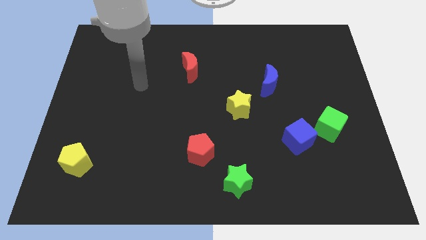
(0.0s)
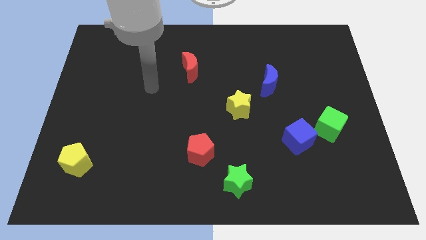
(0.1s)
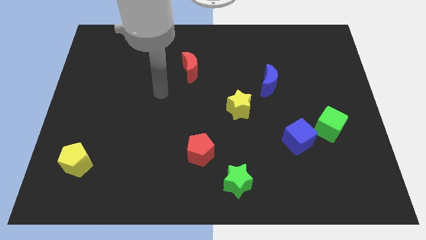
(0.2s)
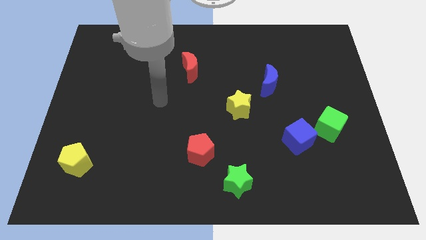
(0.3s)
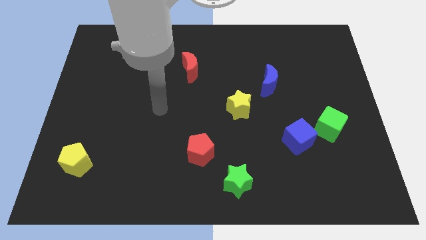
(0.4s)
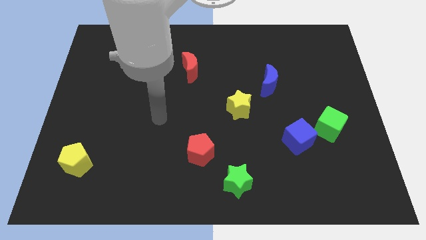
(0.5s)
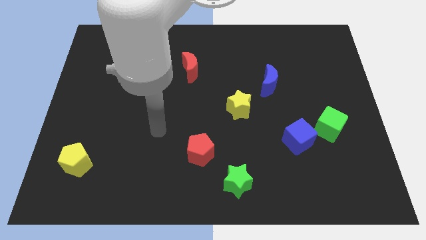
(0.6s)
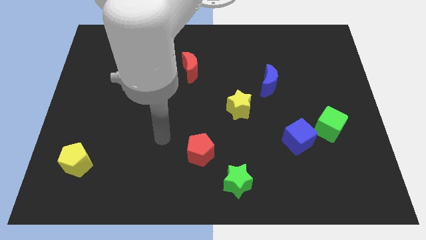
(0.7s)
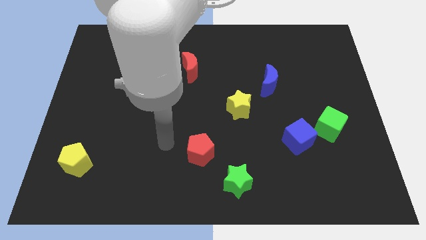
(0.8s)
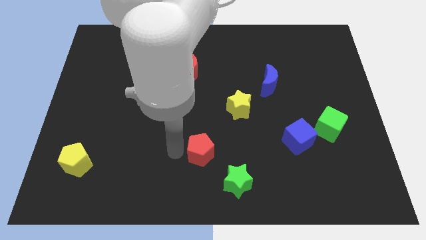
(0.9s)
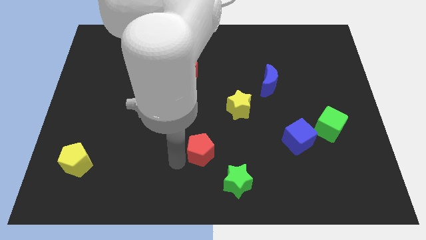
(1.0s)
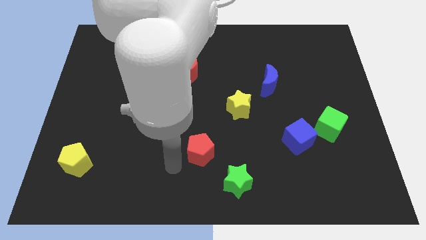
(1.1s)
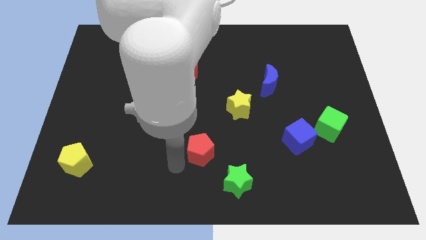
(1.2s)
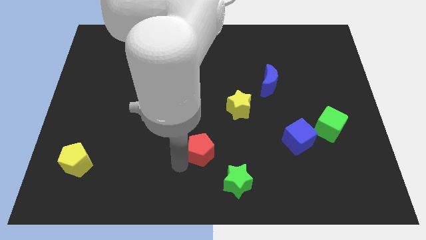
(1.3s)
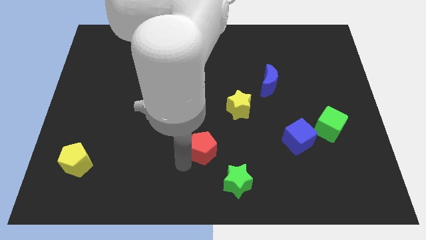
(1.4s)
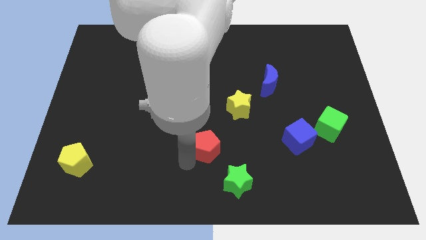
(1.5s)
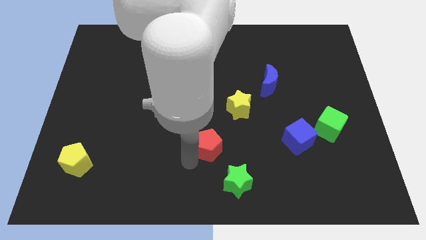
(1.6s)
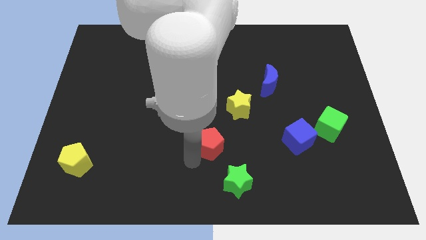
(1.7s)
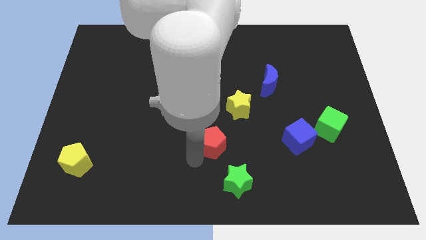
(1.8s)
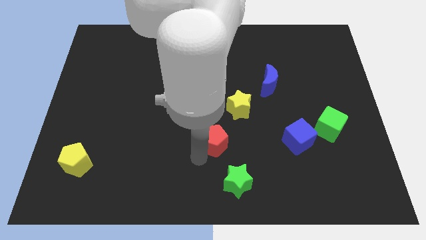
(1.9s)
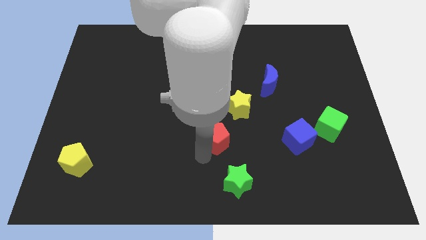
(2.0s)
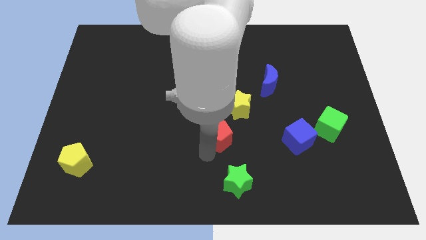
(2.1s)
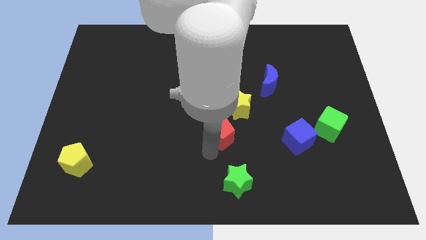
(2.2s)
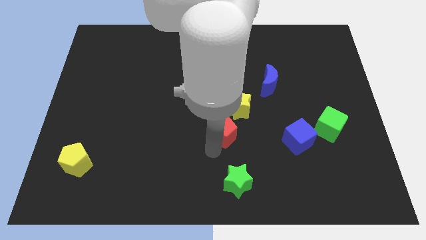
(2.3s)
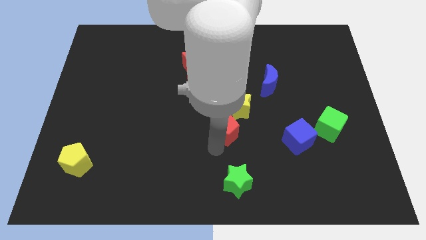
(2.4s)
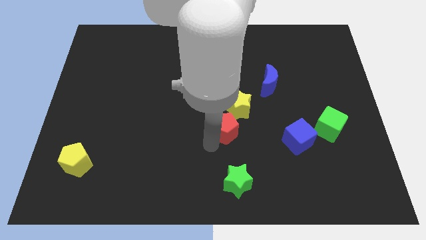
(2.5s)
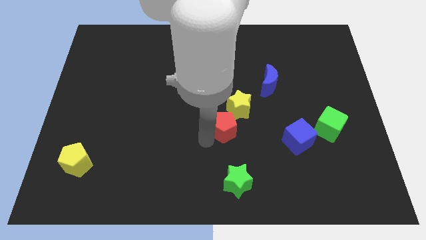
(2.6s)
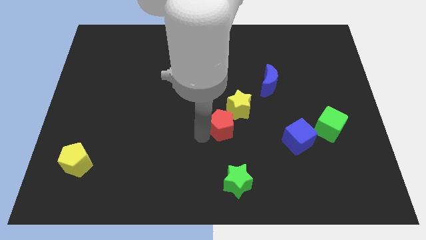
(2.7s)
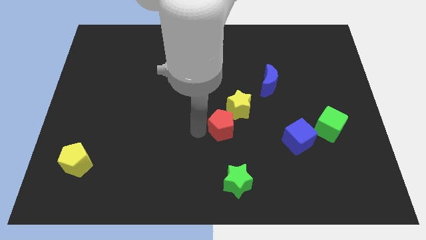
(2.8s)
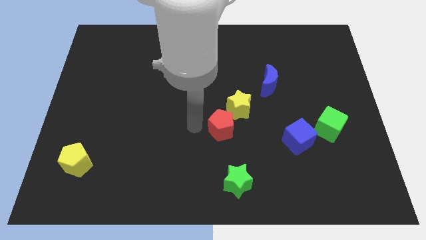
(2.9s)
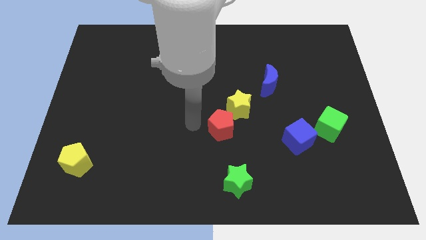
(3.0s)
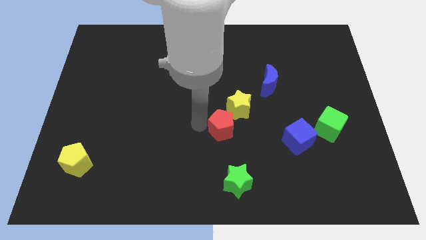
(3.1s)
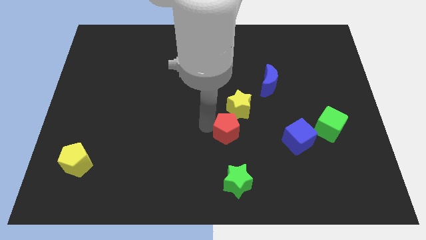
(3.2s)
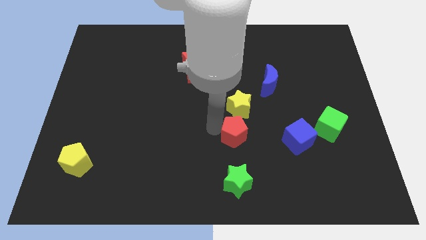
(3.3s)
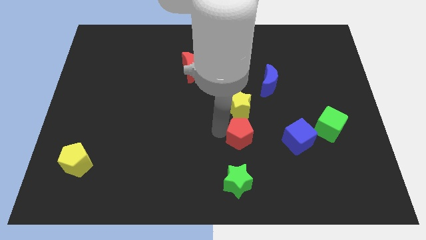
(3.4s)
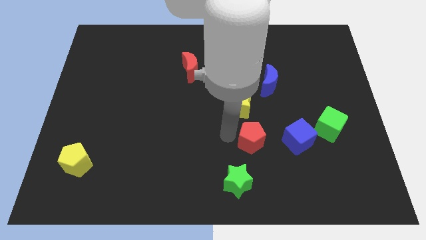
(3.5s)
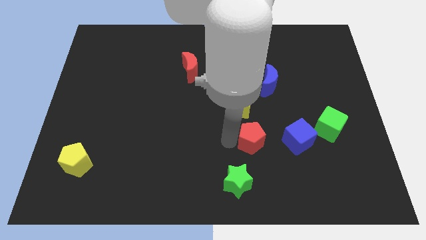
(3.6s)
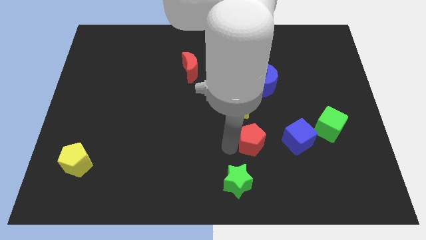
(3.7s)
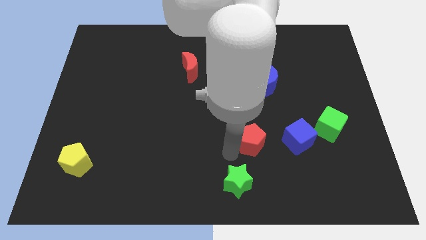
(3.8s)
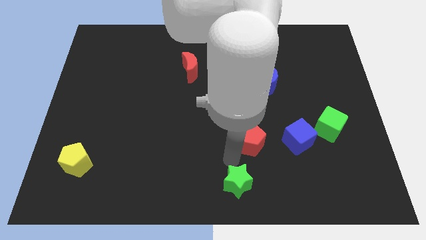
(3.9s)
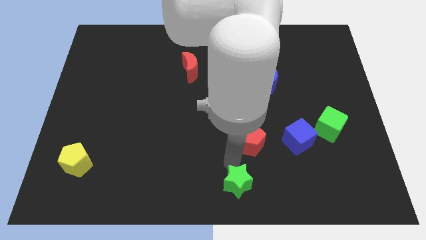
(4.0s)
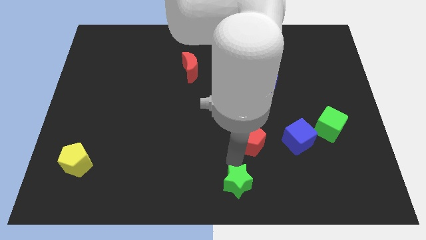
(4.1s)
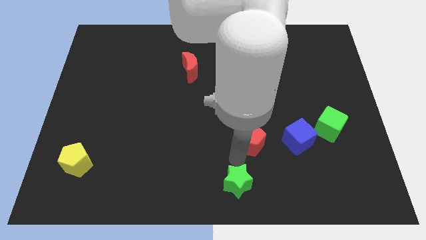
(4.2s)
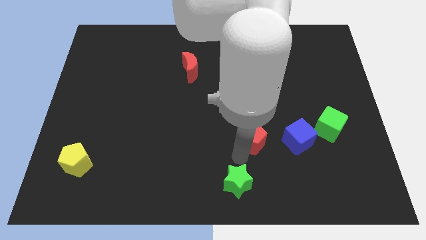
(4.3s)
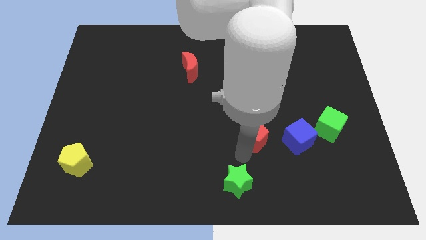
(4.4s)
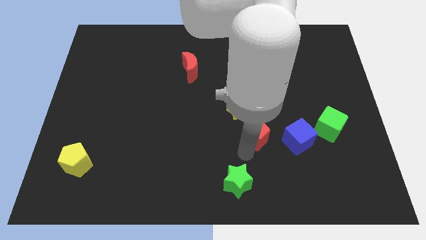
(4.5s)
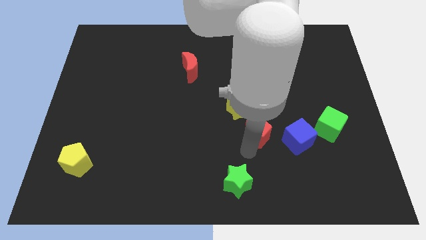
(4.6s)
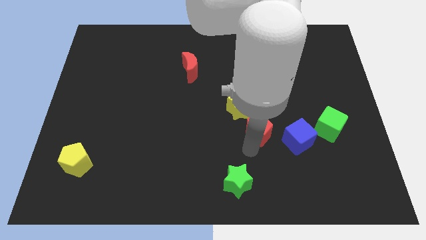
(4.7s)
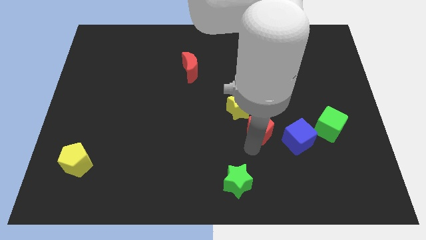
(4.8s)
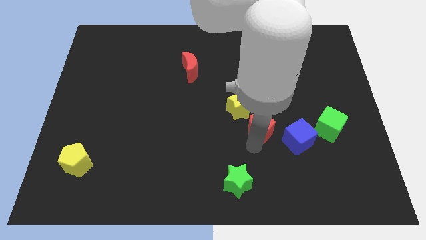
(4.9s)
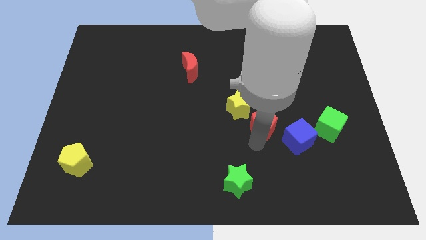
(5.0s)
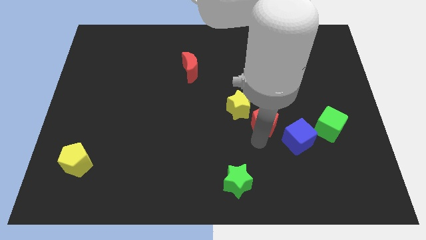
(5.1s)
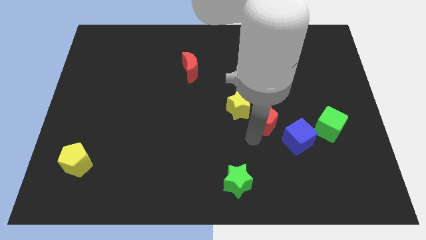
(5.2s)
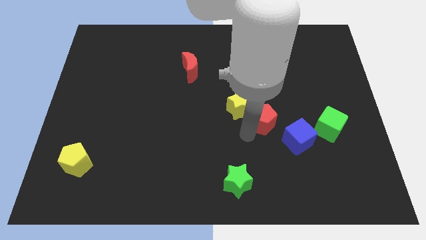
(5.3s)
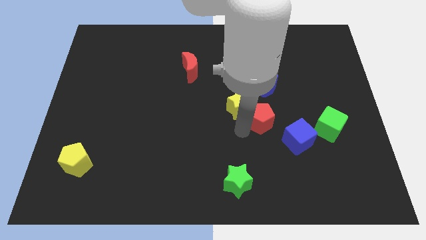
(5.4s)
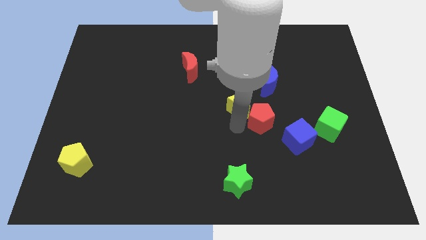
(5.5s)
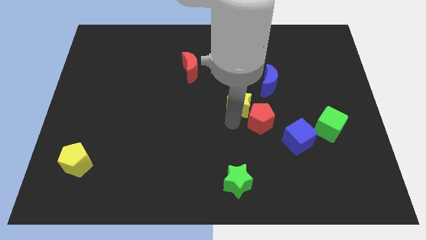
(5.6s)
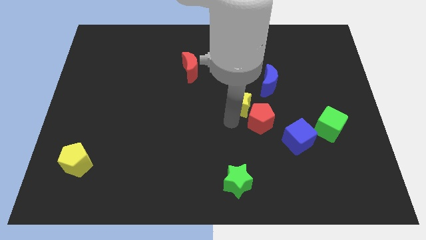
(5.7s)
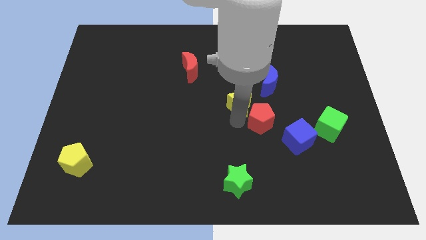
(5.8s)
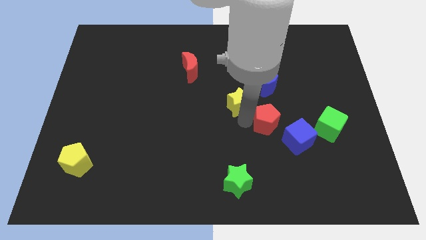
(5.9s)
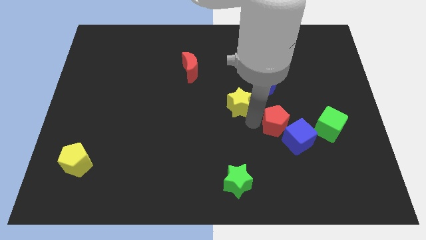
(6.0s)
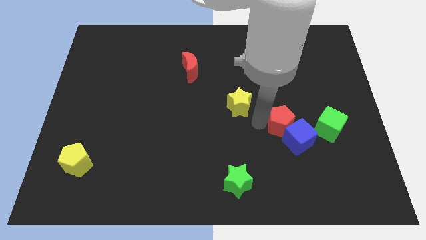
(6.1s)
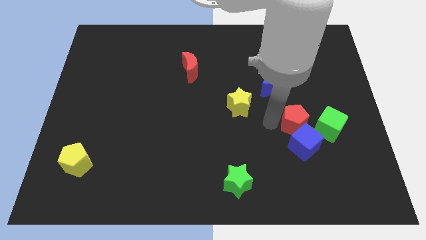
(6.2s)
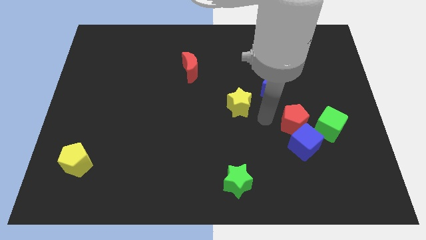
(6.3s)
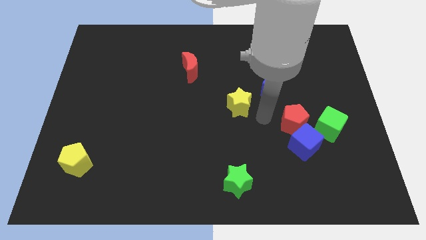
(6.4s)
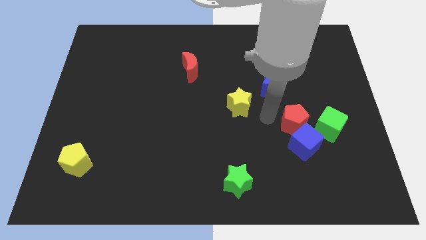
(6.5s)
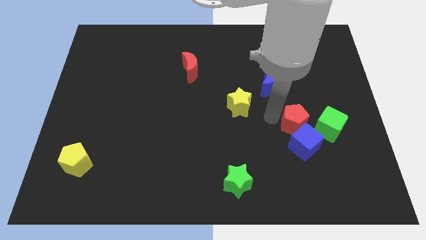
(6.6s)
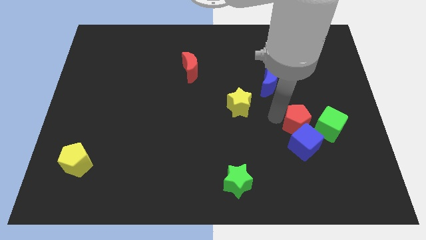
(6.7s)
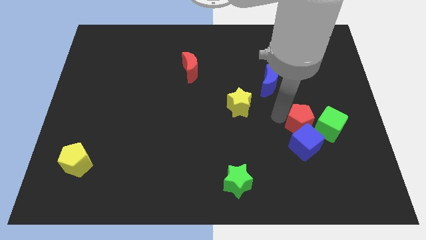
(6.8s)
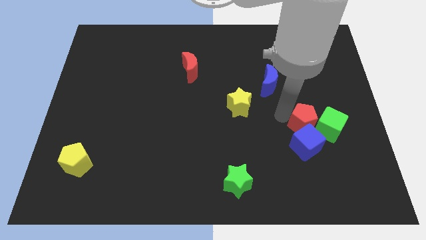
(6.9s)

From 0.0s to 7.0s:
put the red pentagon close to the green cube

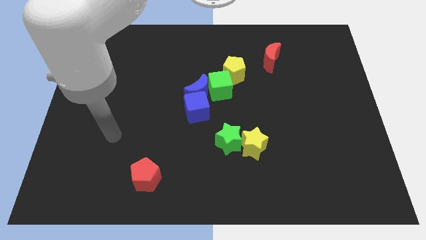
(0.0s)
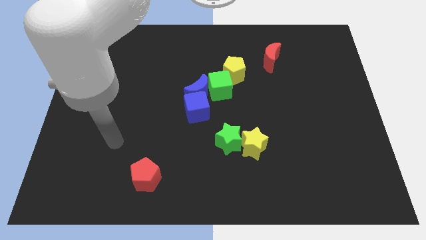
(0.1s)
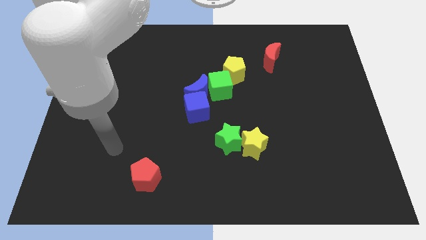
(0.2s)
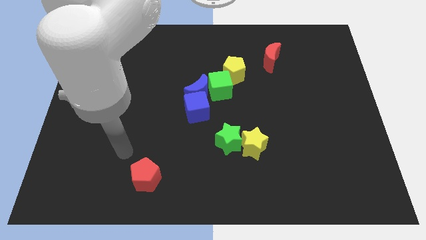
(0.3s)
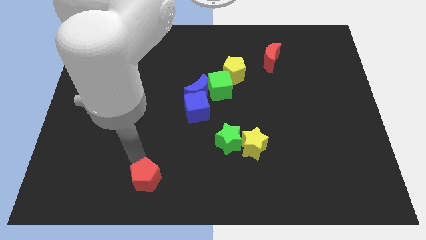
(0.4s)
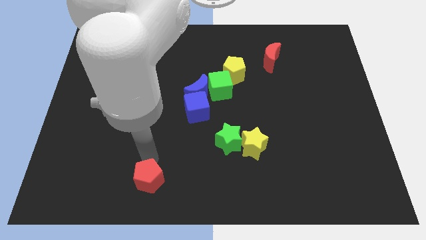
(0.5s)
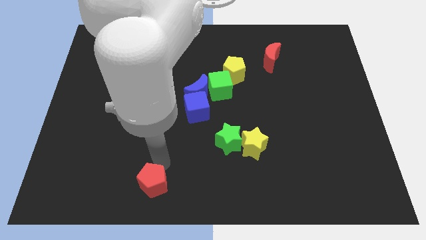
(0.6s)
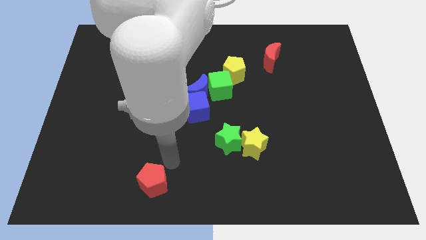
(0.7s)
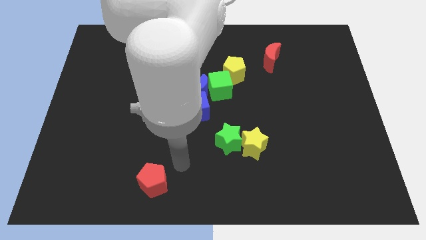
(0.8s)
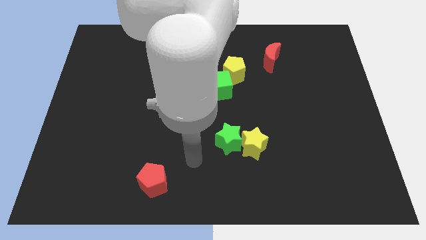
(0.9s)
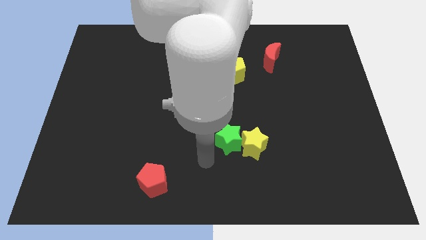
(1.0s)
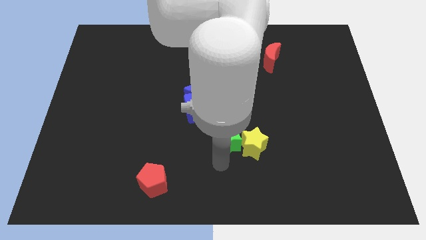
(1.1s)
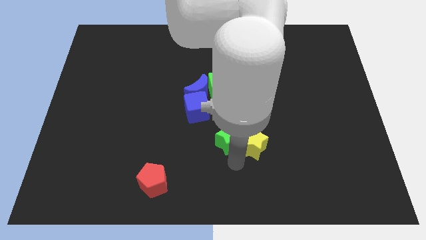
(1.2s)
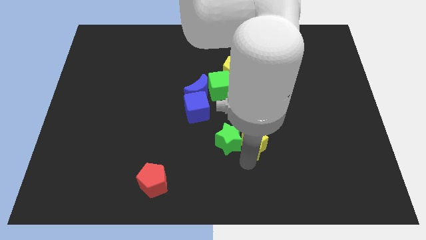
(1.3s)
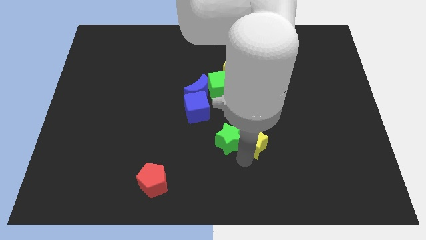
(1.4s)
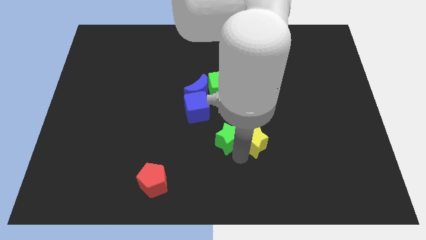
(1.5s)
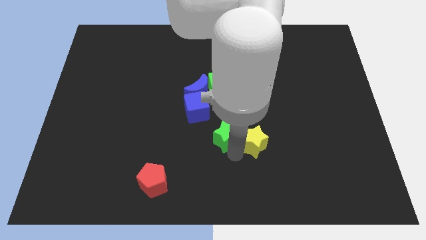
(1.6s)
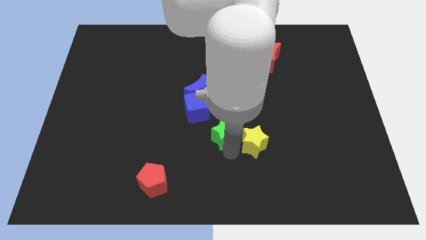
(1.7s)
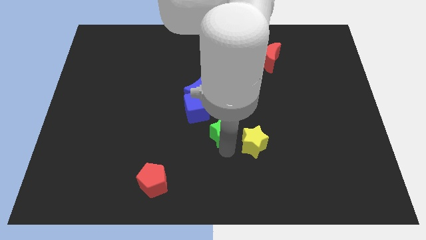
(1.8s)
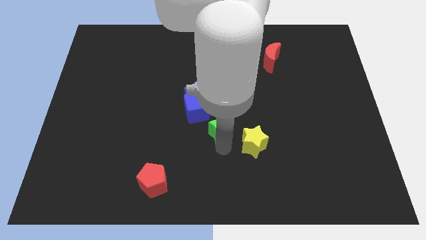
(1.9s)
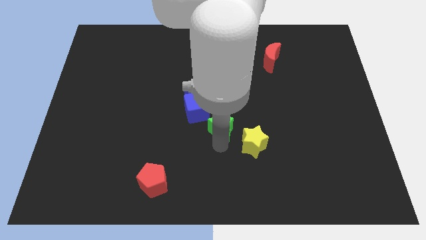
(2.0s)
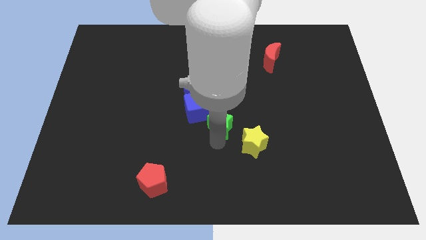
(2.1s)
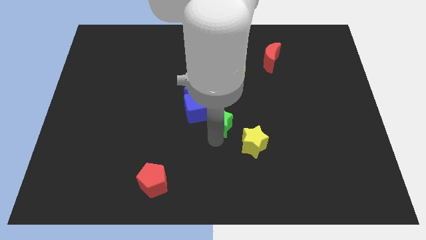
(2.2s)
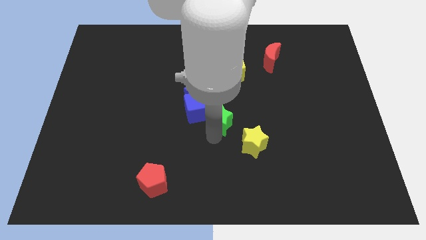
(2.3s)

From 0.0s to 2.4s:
move the green star next to the blue cube
